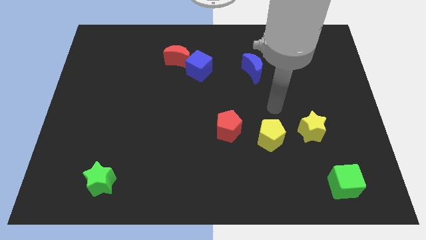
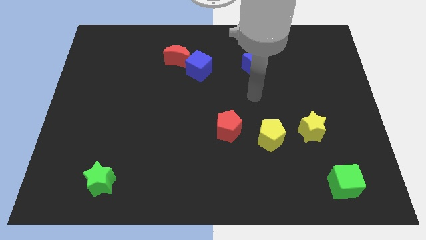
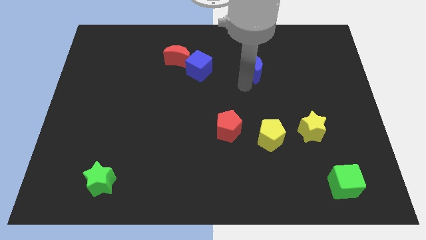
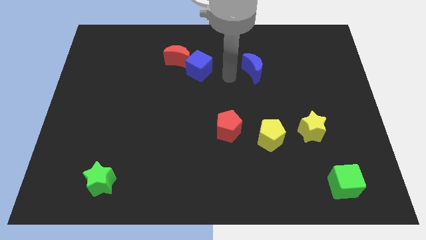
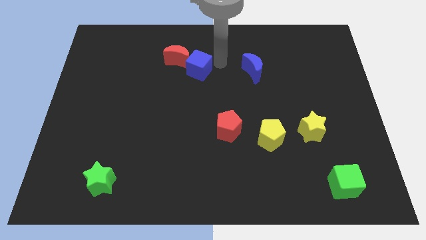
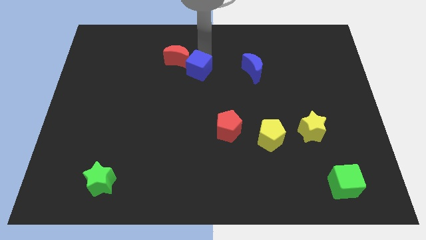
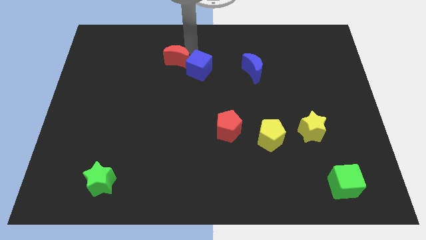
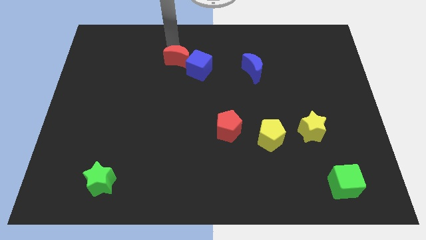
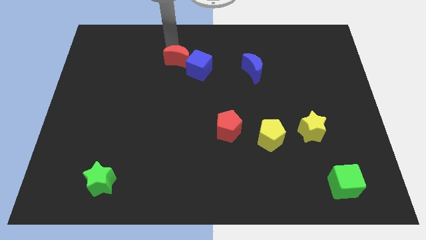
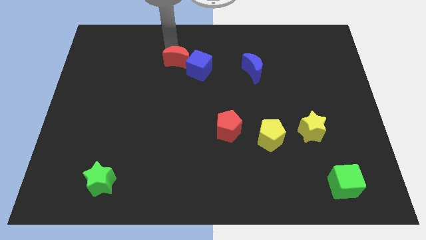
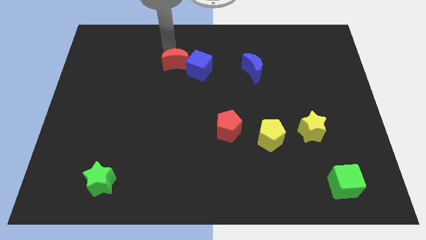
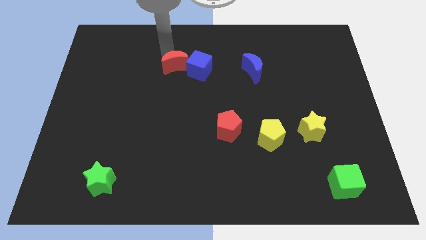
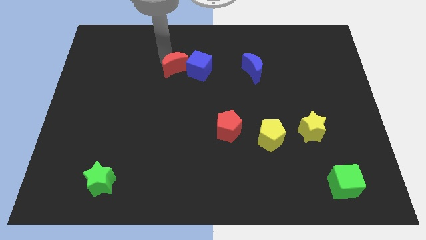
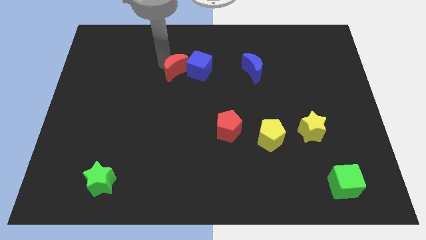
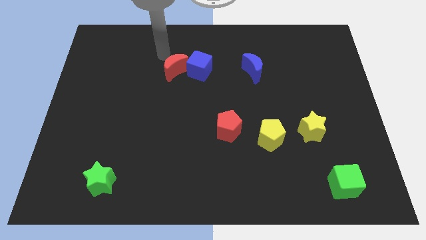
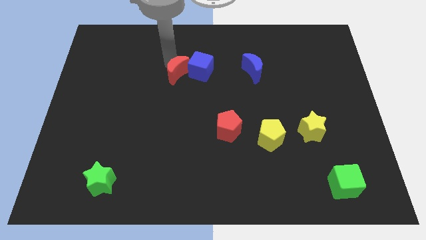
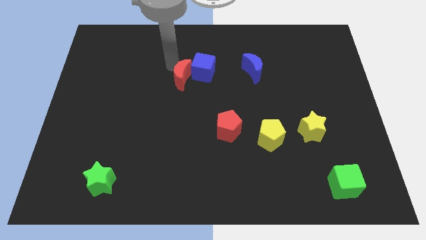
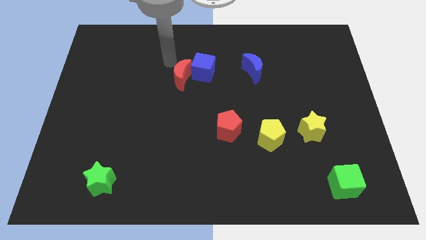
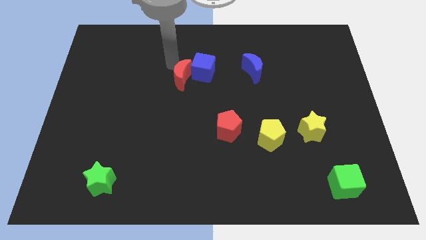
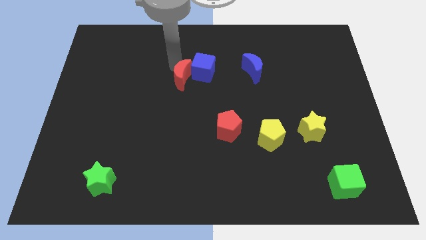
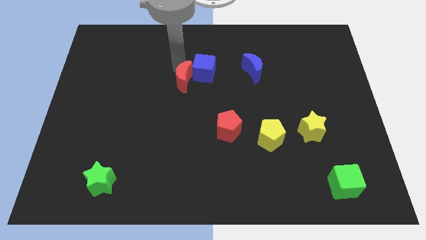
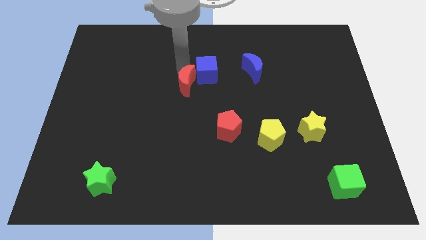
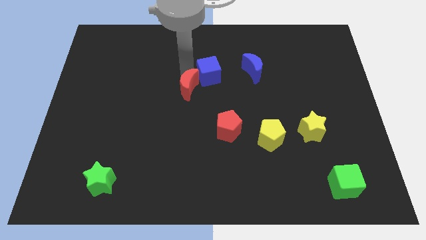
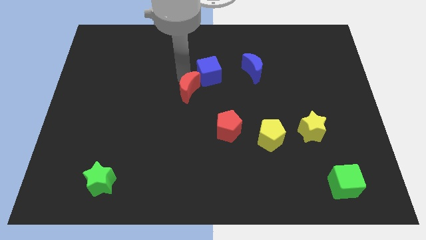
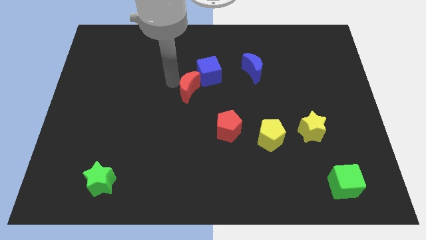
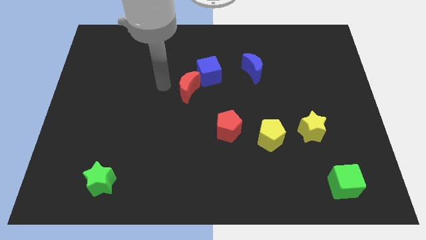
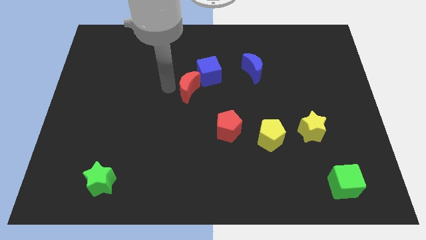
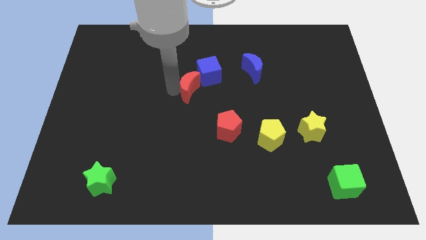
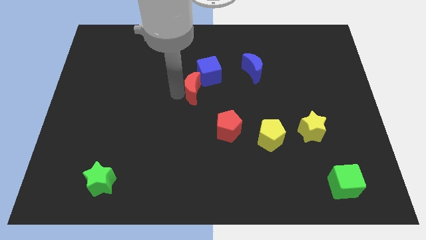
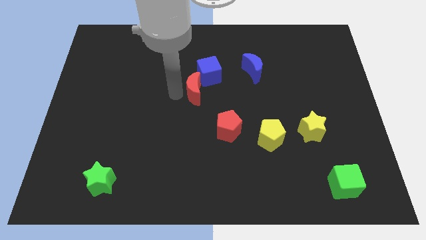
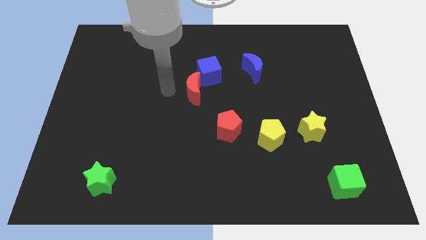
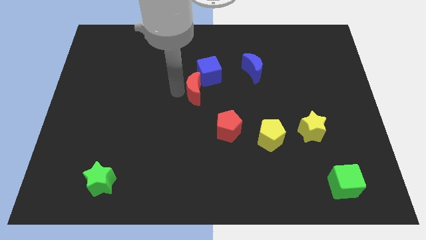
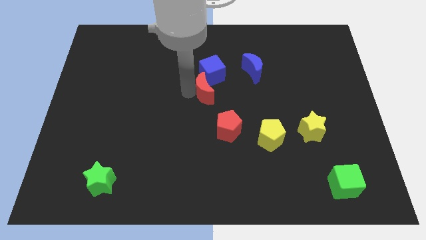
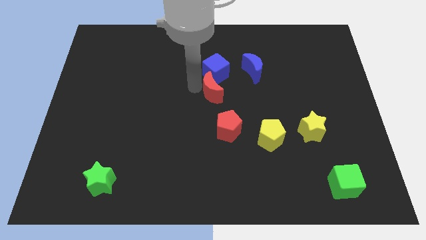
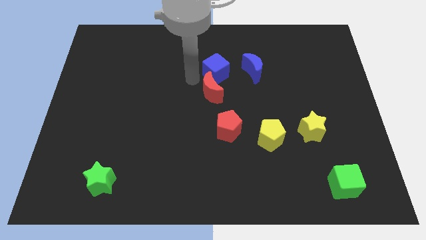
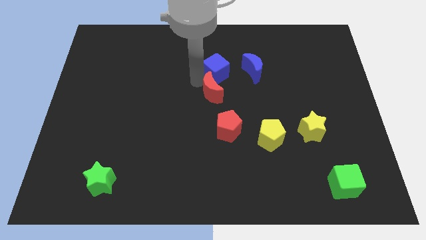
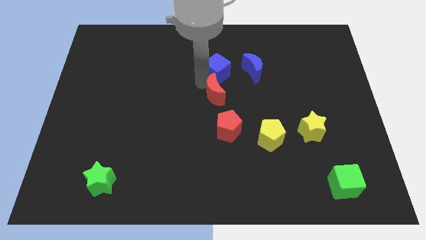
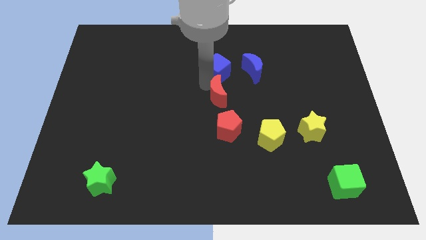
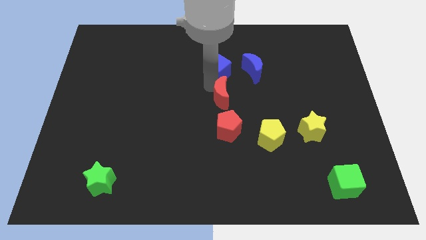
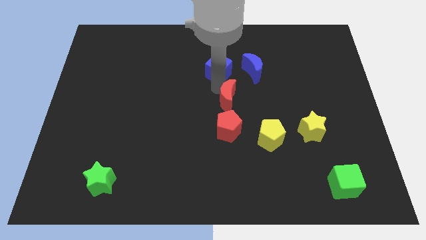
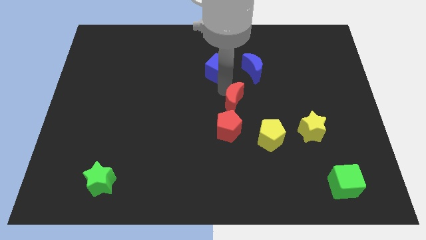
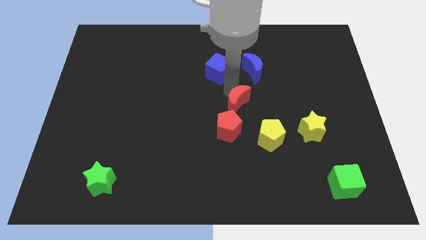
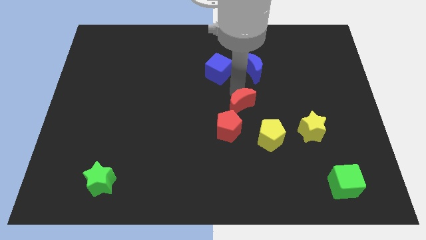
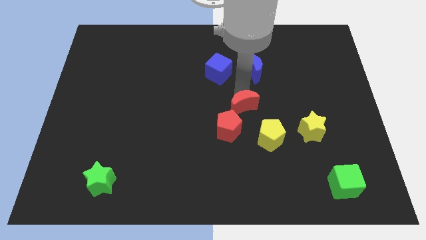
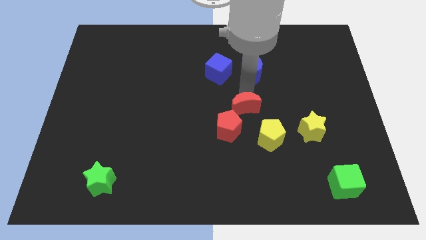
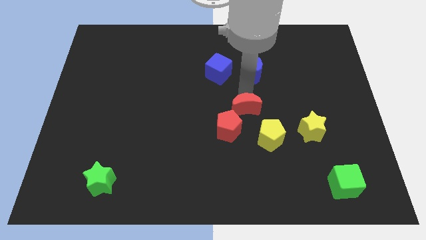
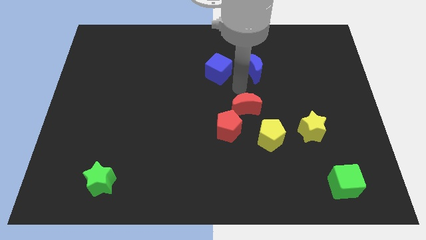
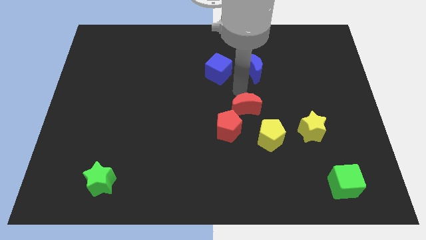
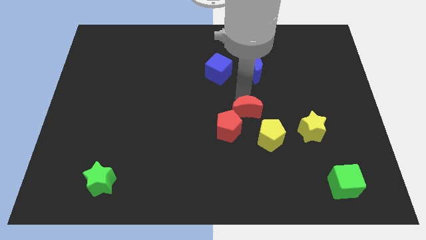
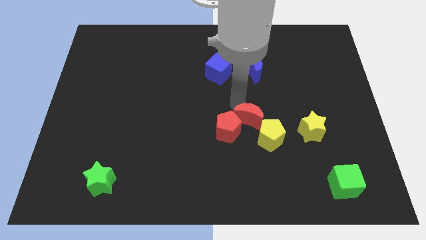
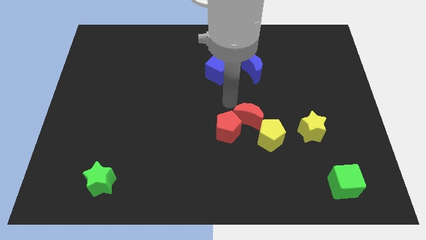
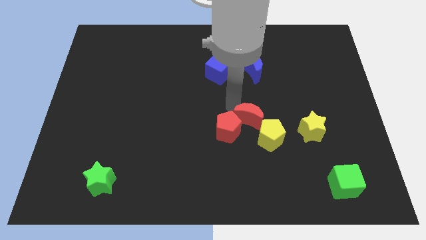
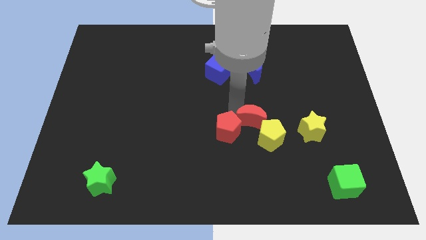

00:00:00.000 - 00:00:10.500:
push the red moon to the yellow pentagon

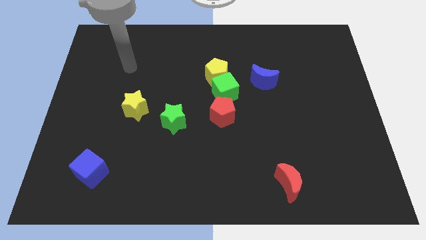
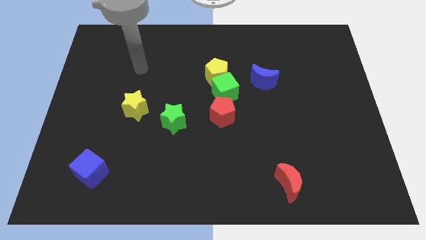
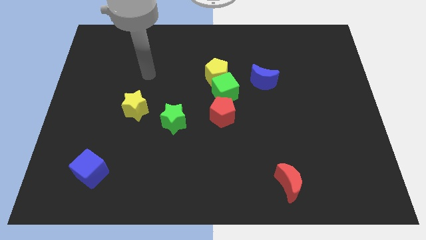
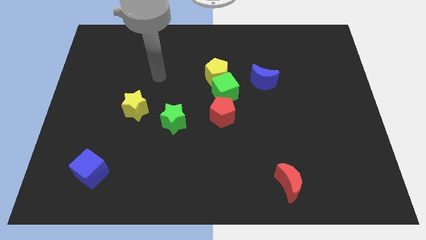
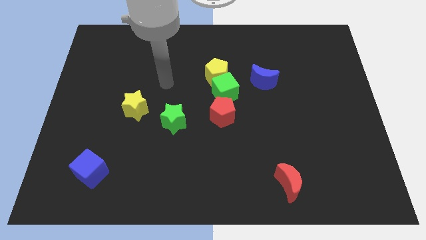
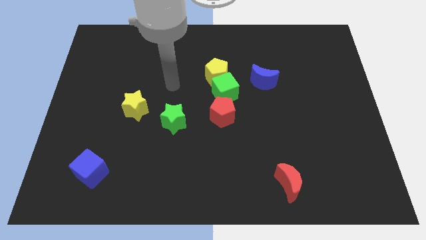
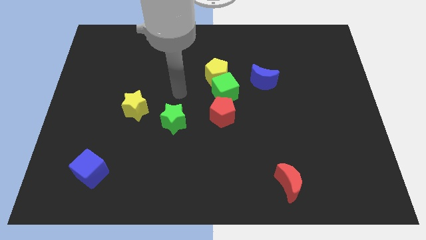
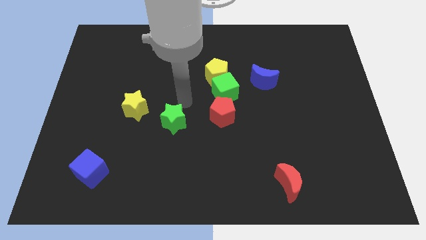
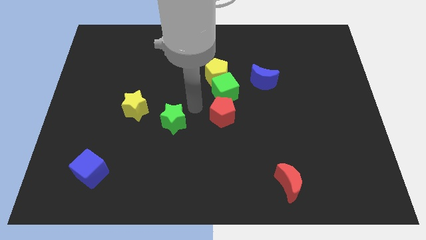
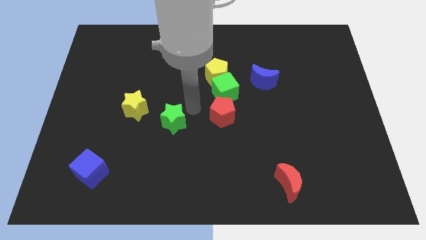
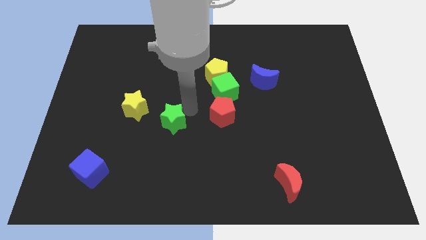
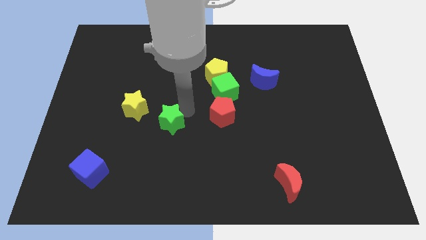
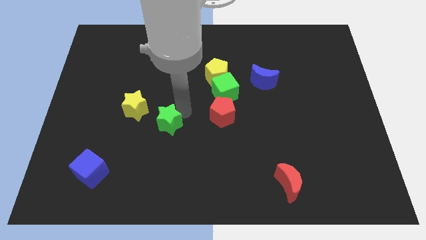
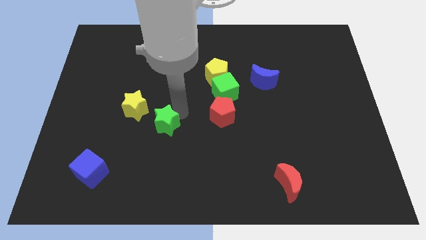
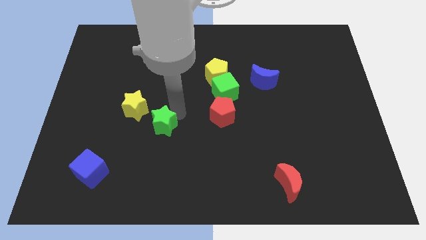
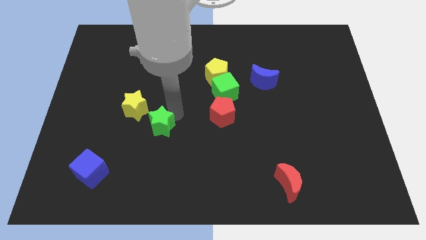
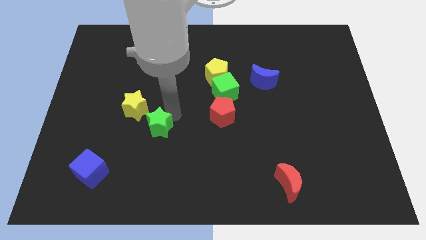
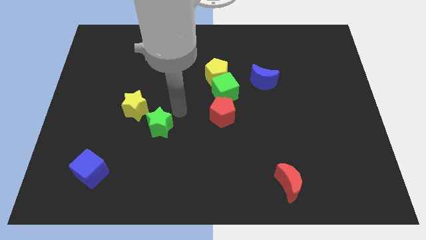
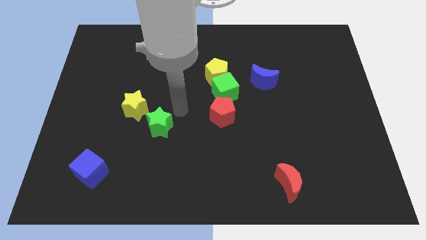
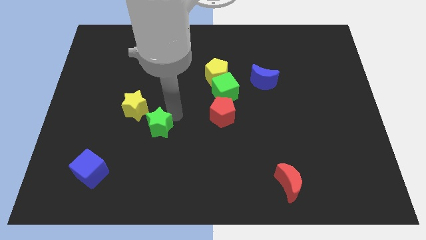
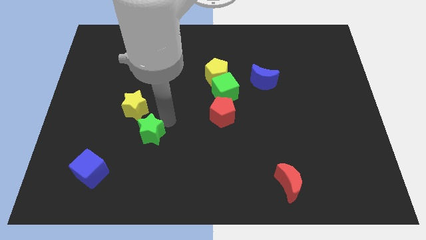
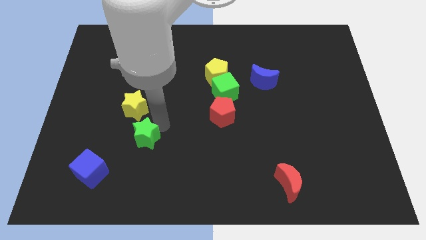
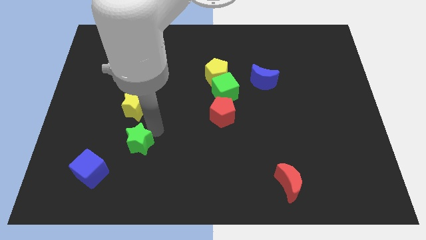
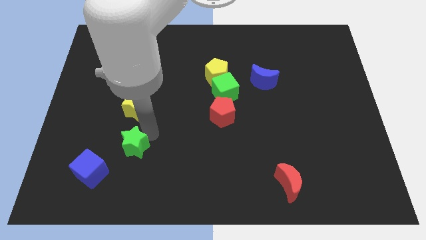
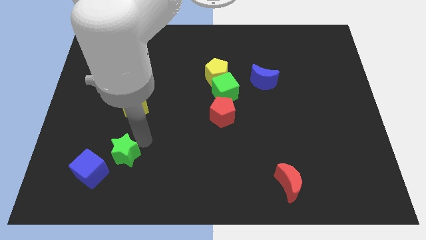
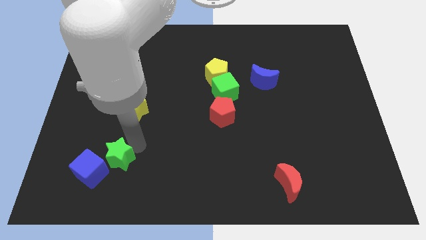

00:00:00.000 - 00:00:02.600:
push the green star close to the blue cube
